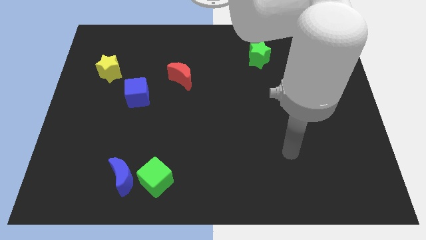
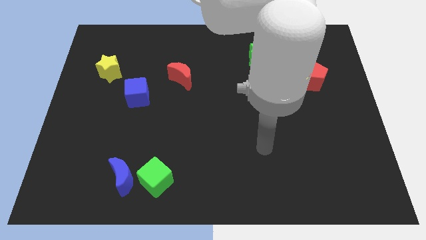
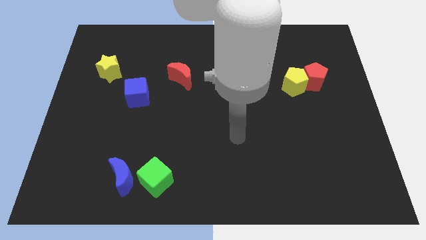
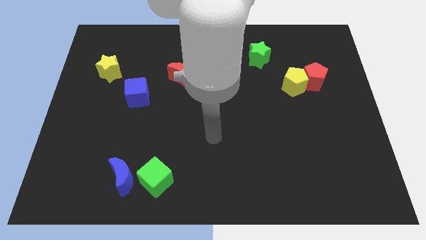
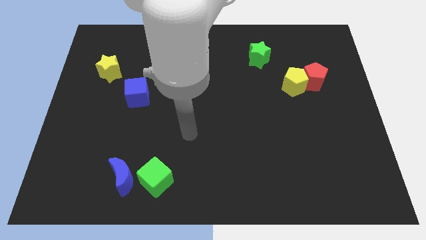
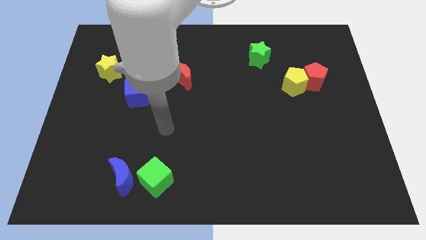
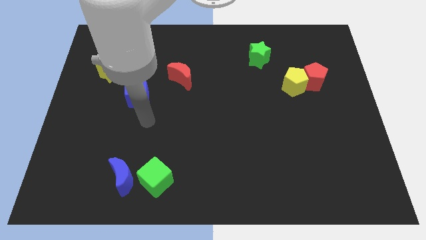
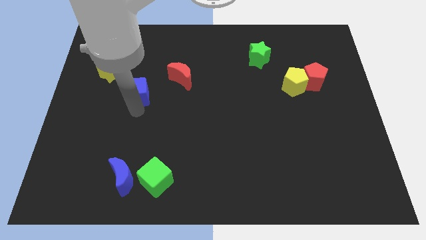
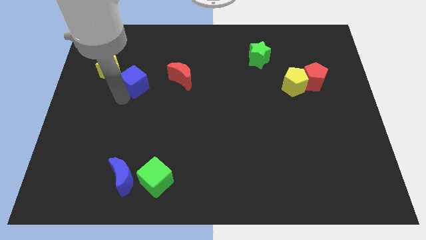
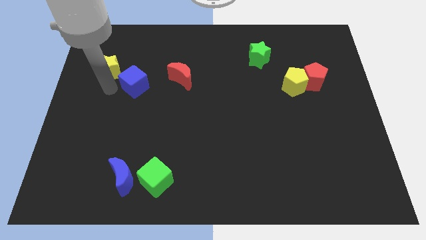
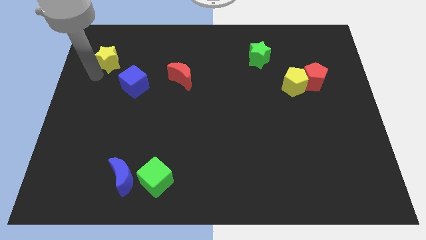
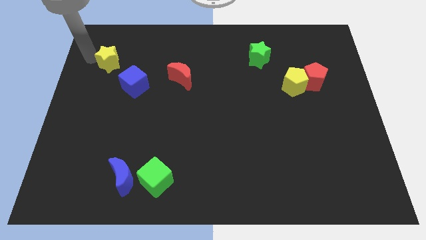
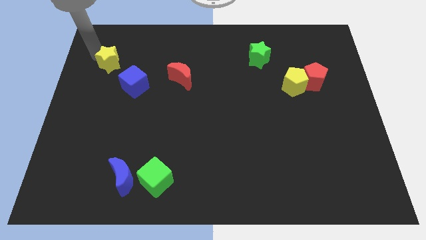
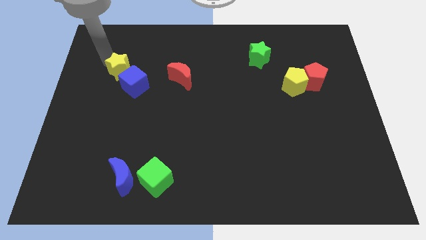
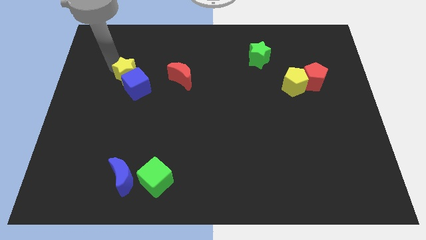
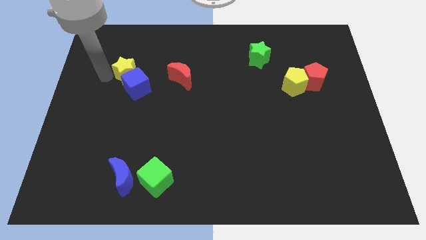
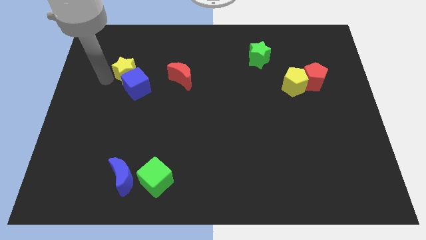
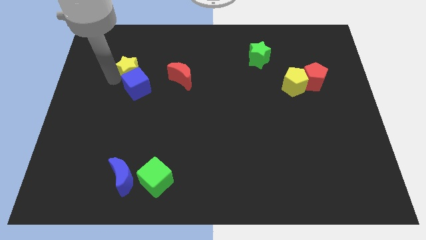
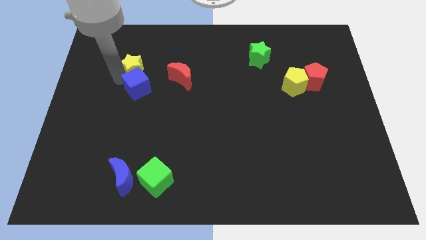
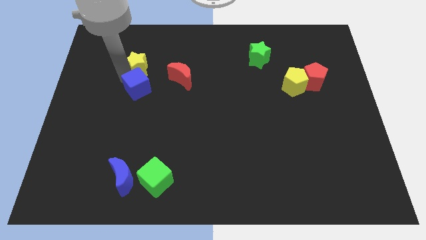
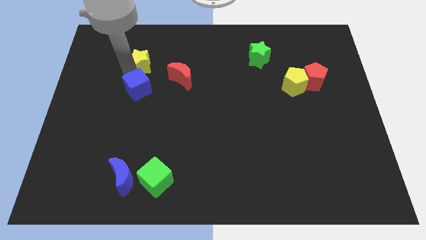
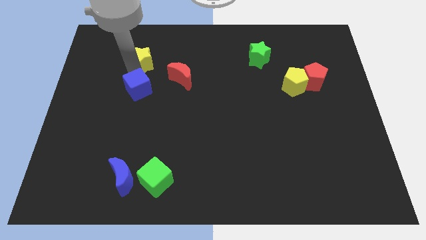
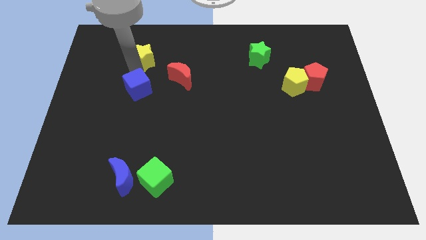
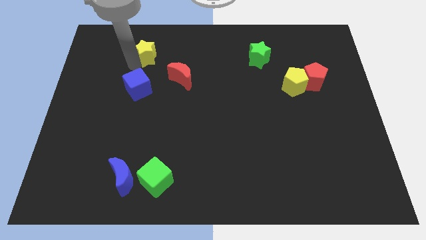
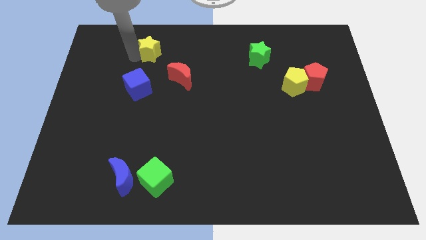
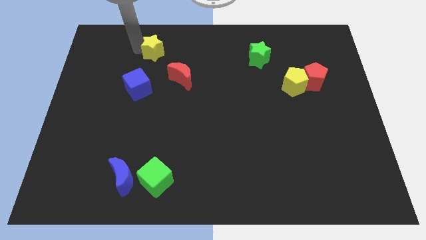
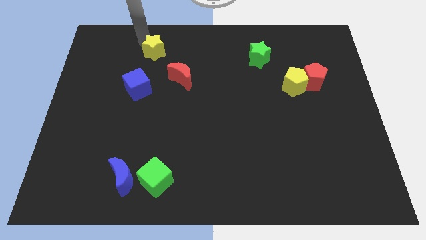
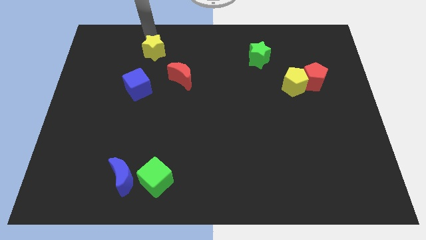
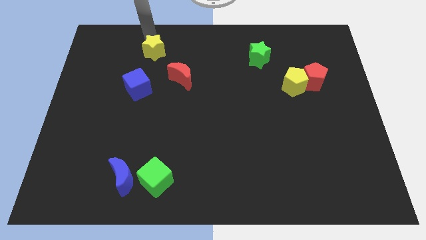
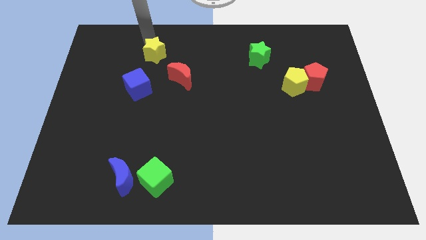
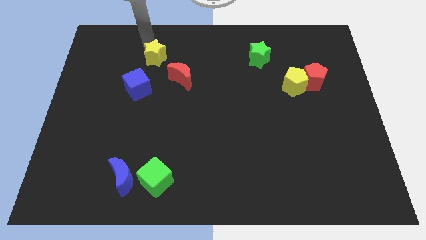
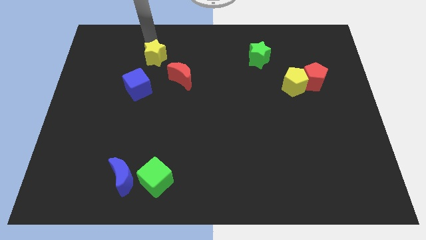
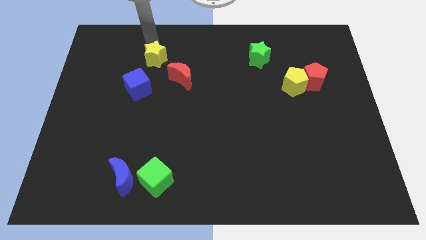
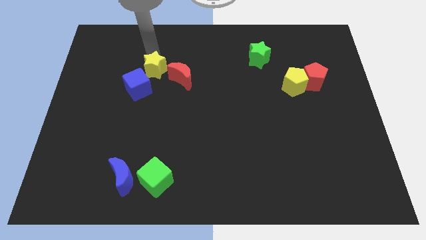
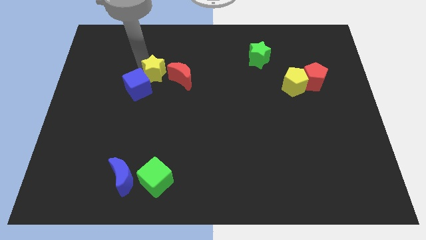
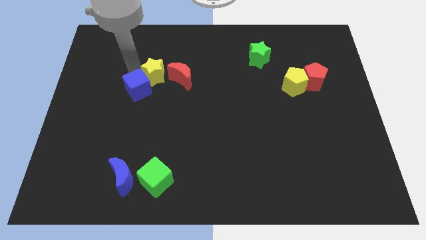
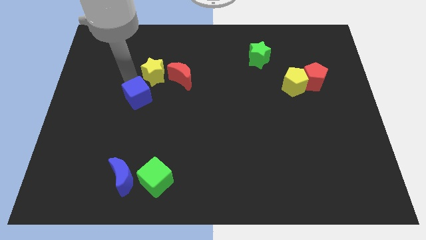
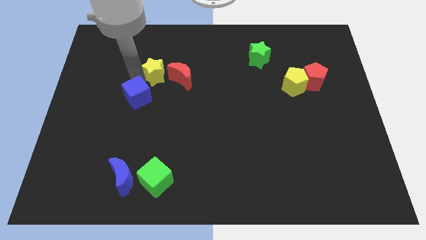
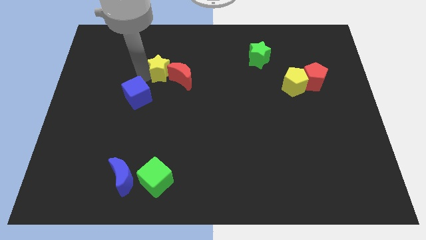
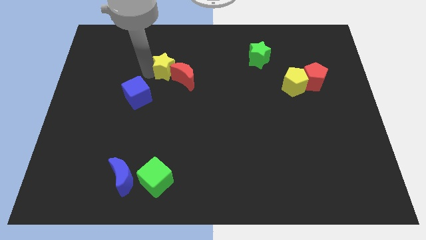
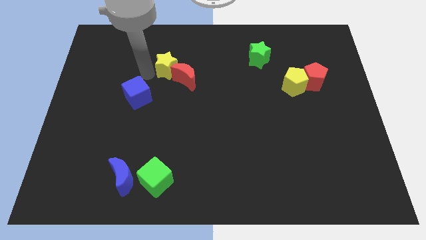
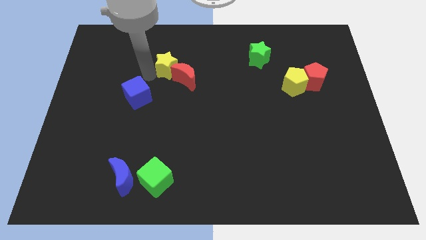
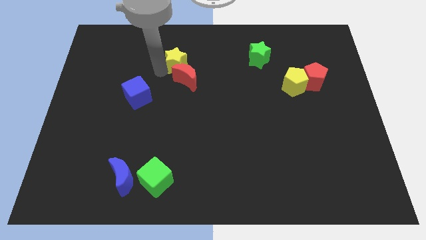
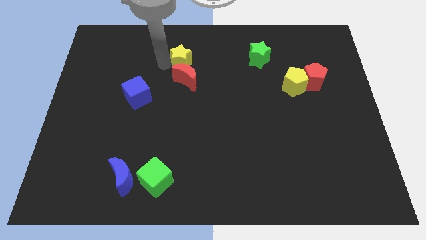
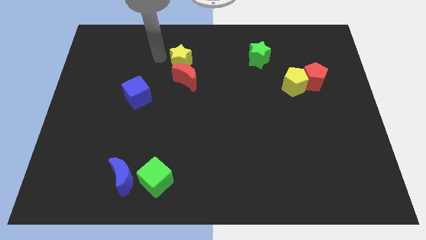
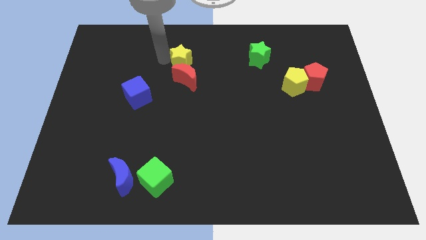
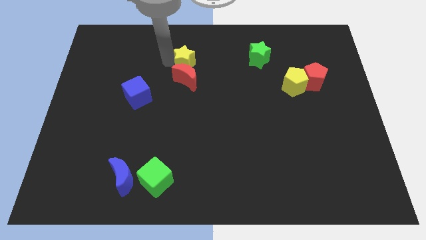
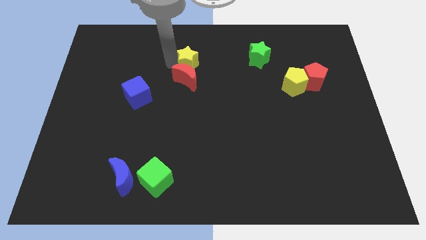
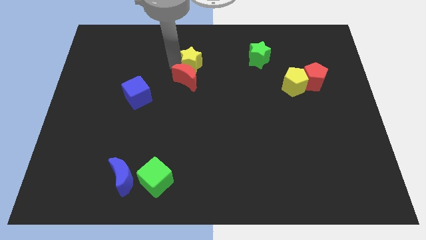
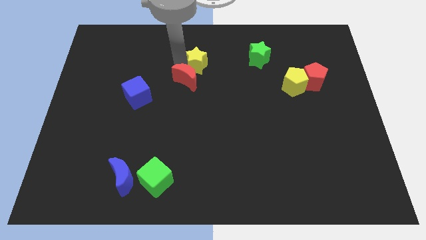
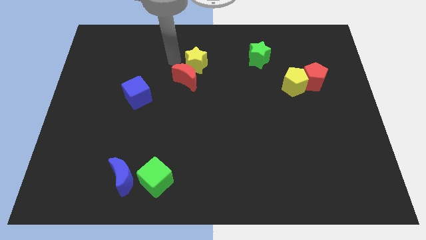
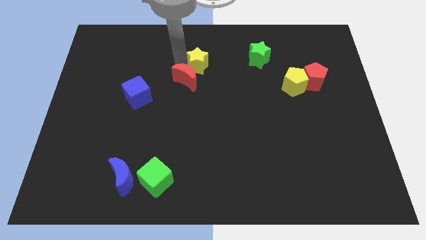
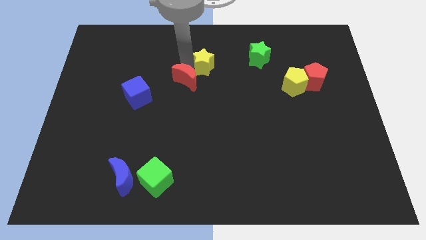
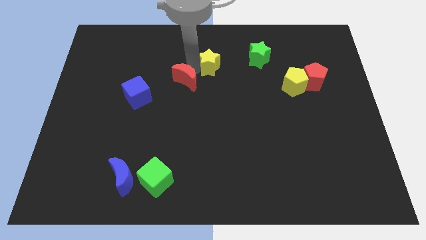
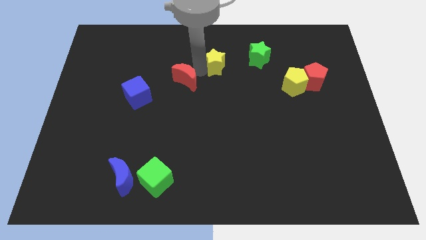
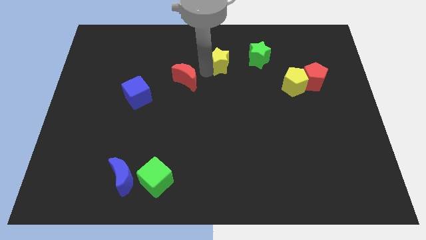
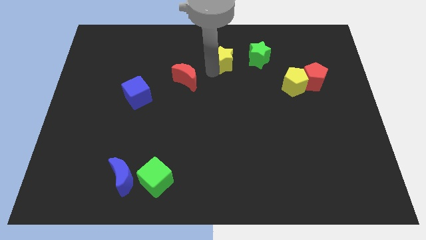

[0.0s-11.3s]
put the yellow star diagonally down and to the left of the green star

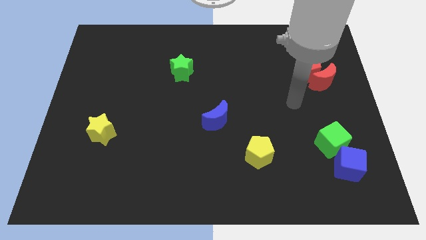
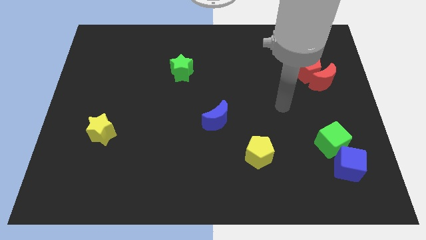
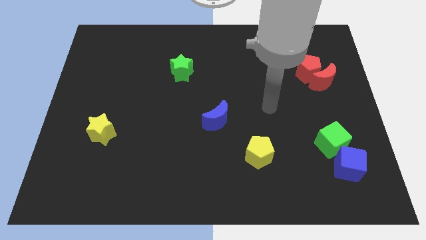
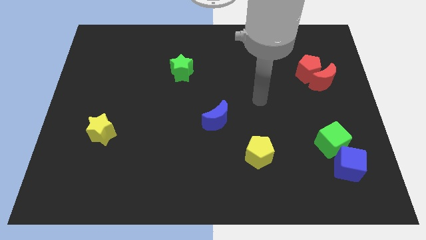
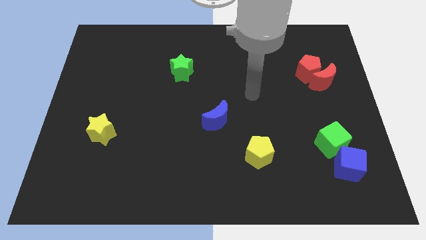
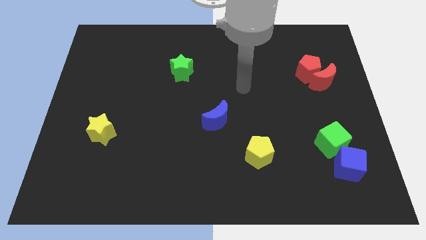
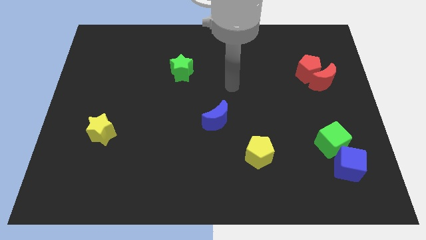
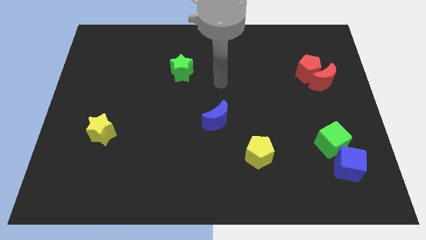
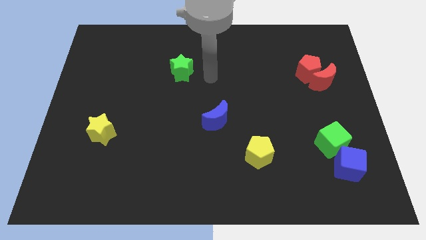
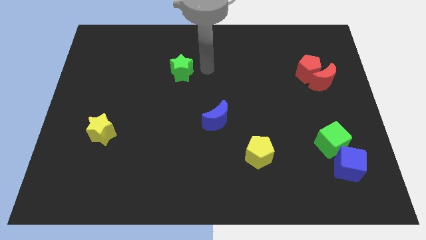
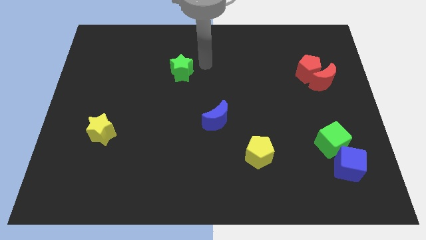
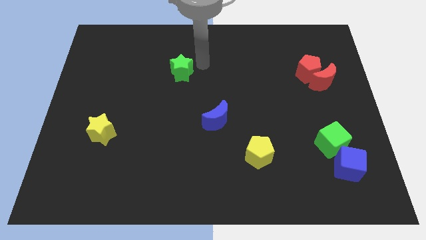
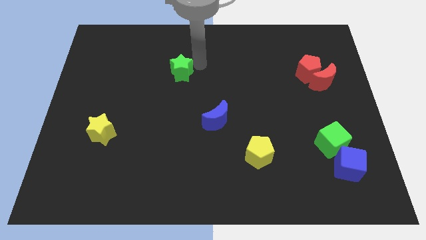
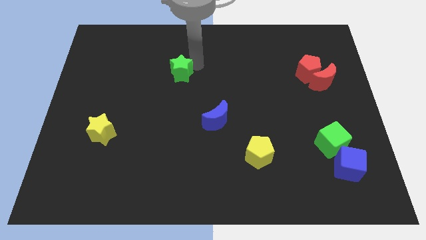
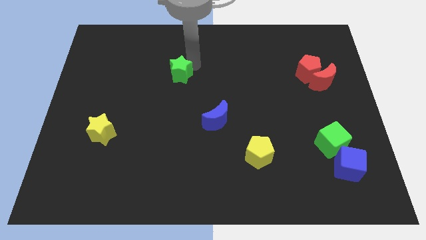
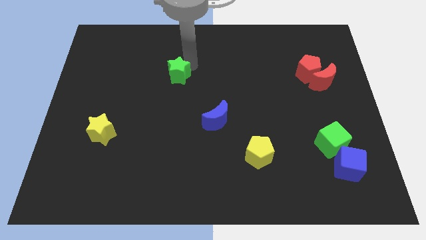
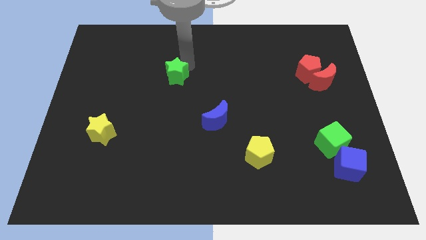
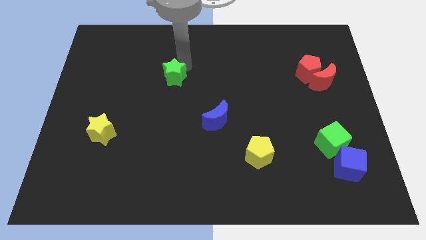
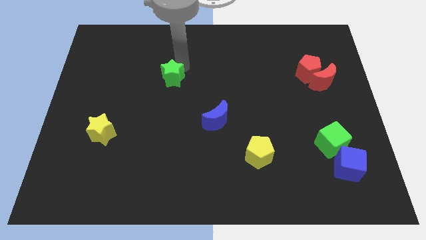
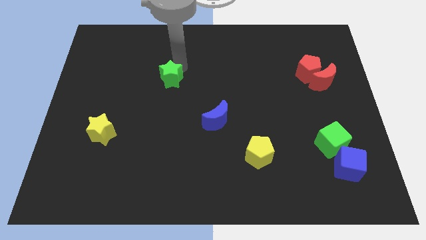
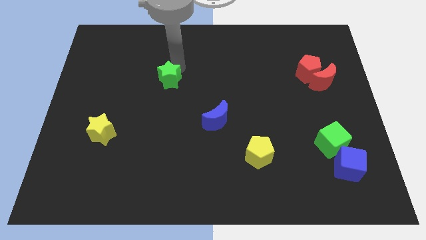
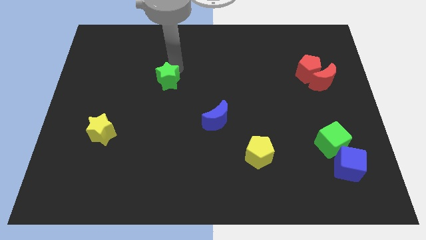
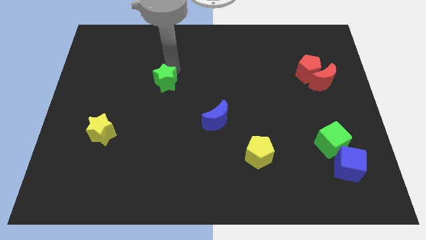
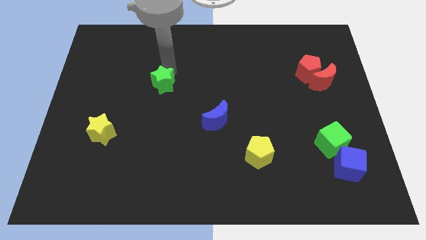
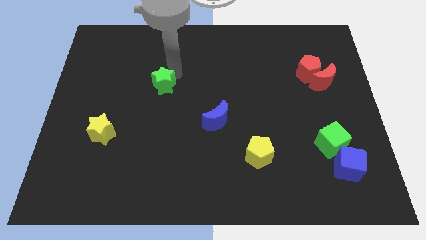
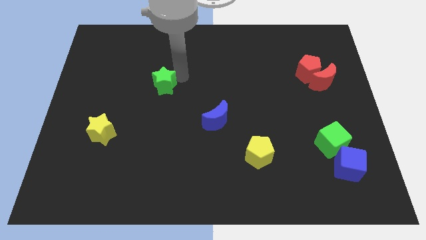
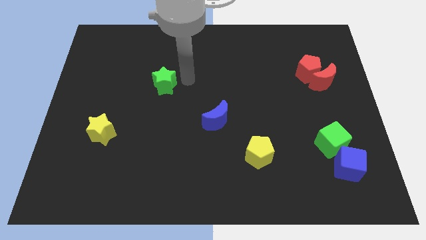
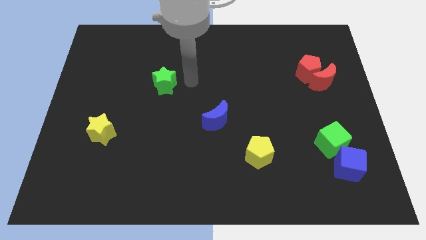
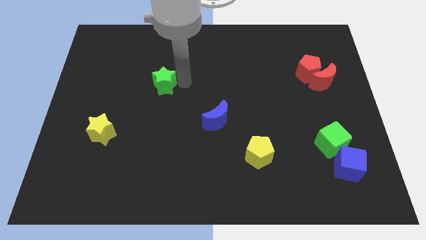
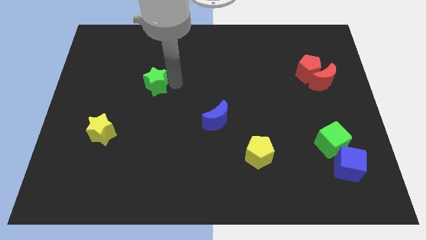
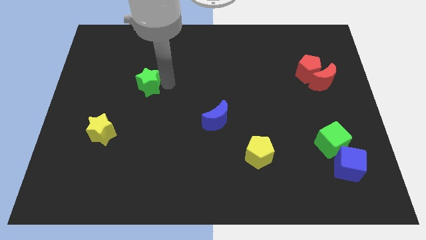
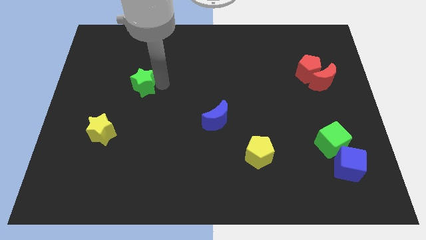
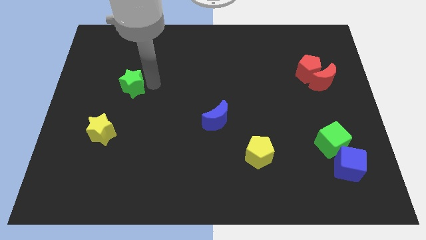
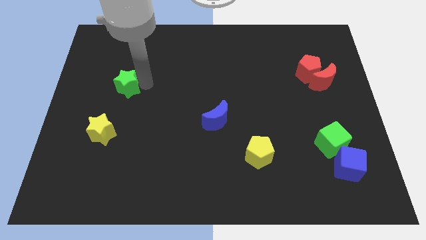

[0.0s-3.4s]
move the green star to the top of the yellow star
